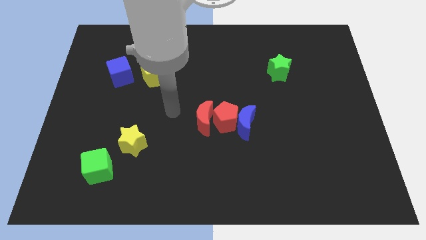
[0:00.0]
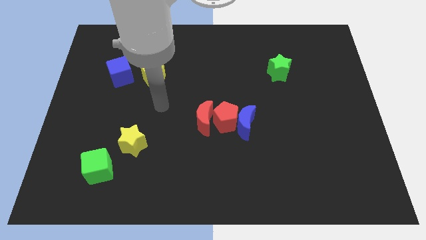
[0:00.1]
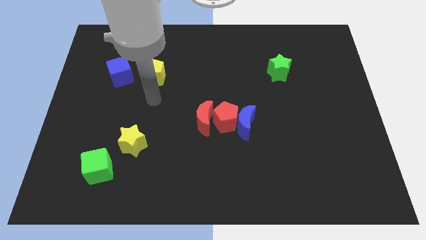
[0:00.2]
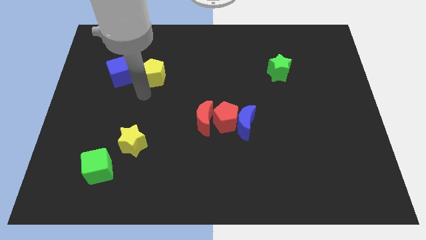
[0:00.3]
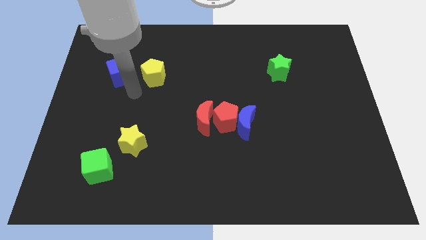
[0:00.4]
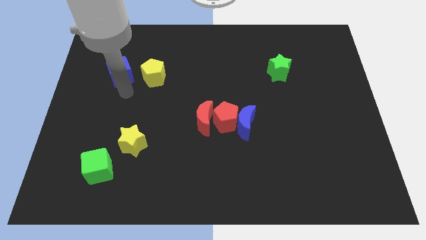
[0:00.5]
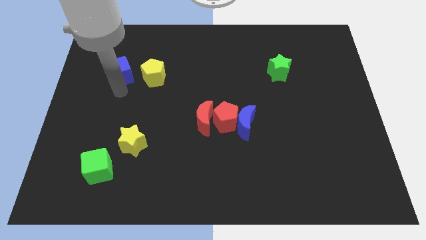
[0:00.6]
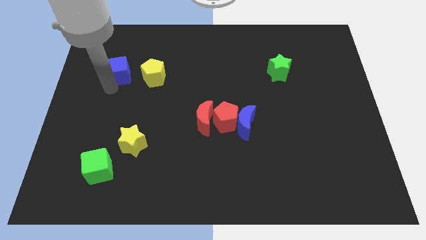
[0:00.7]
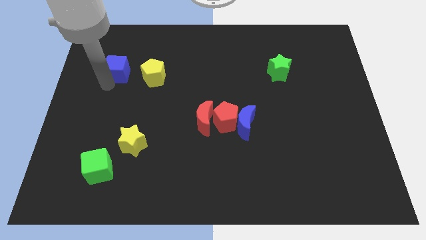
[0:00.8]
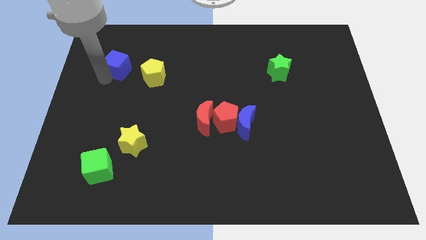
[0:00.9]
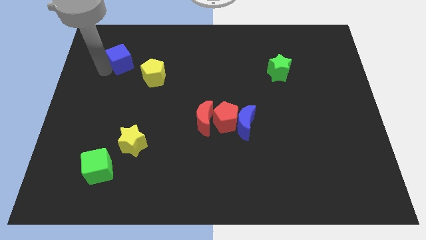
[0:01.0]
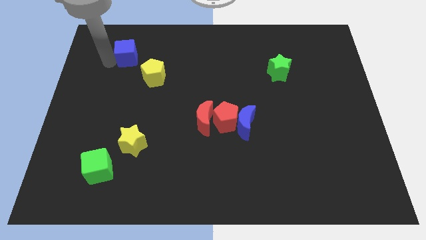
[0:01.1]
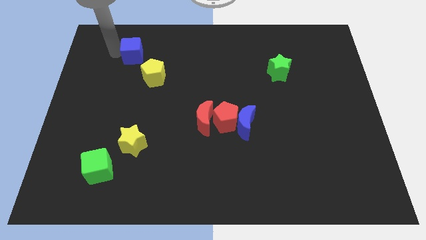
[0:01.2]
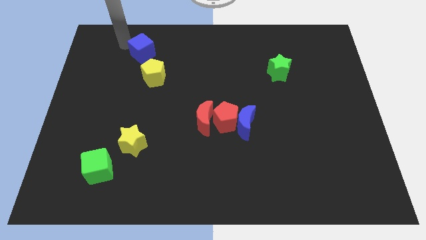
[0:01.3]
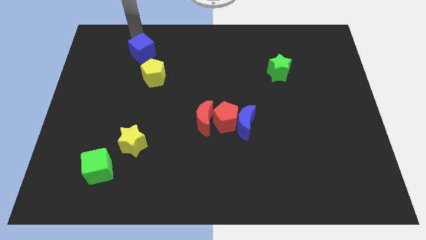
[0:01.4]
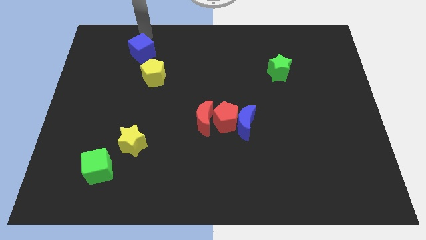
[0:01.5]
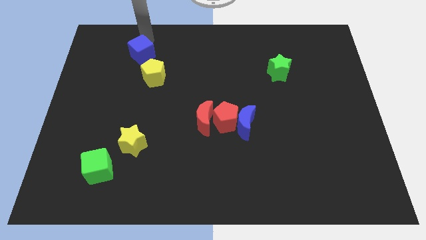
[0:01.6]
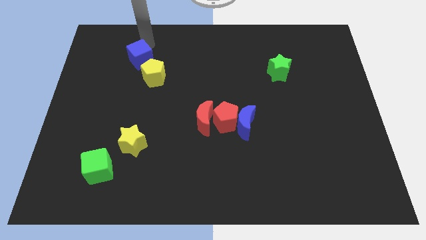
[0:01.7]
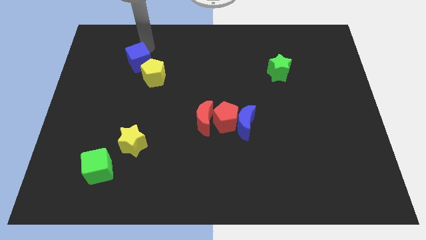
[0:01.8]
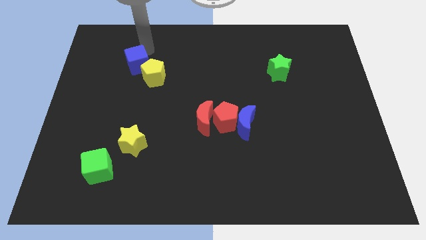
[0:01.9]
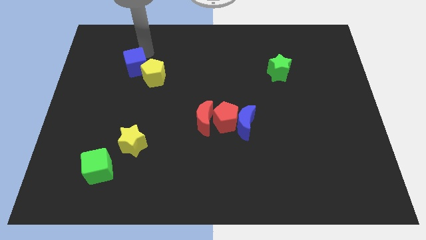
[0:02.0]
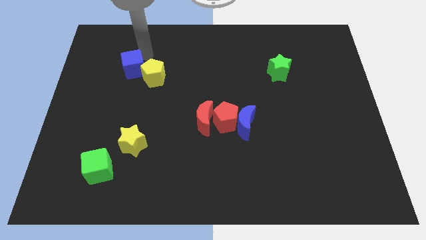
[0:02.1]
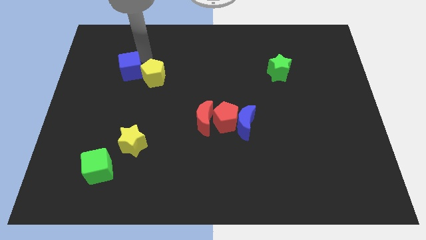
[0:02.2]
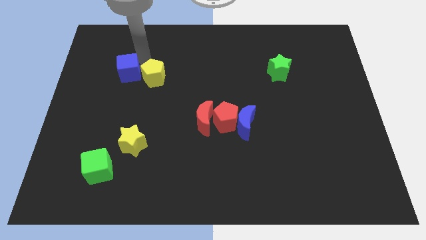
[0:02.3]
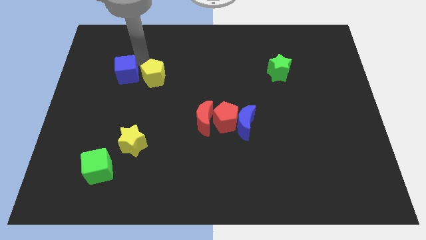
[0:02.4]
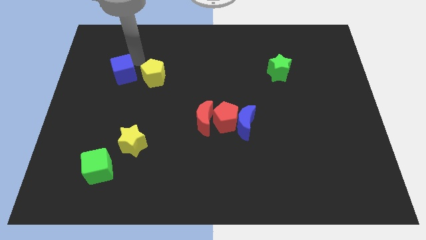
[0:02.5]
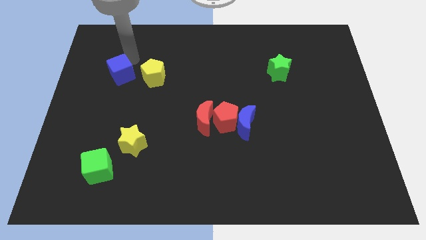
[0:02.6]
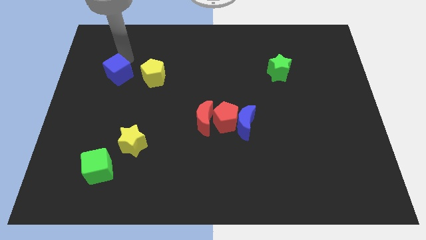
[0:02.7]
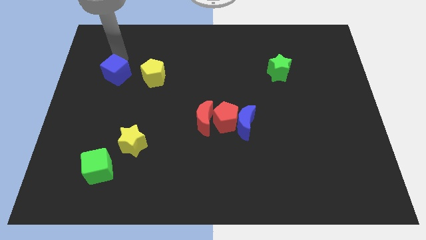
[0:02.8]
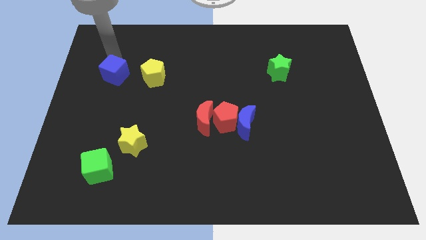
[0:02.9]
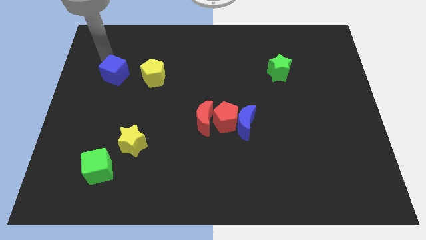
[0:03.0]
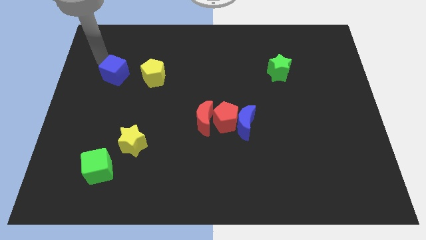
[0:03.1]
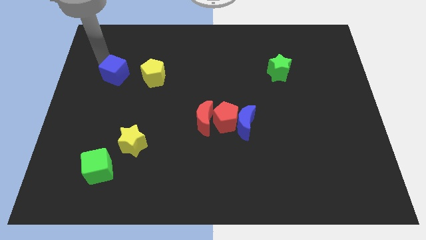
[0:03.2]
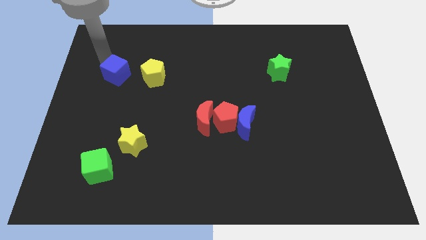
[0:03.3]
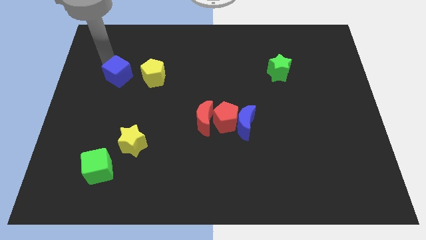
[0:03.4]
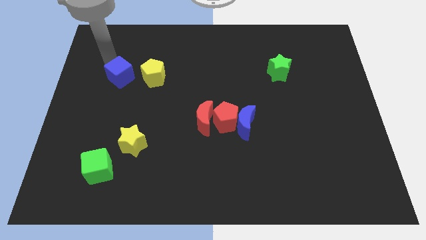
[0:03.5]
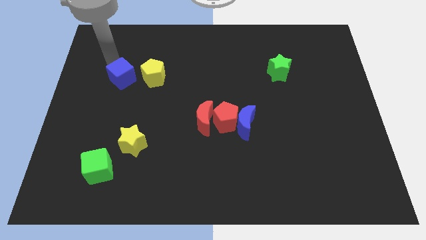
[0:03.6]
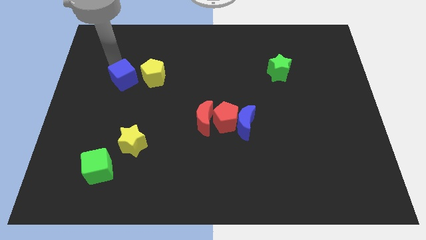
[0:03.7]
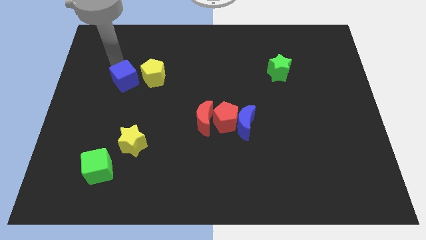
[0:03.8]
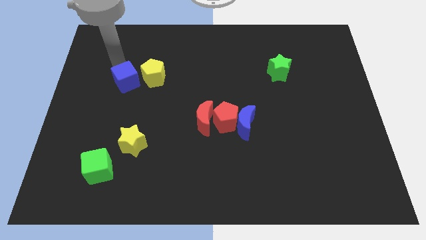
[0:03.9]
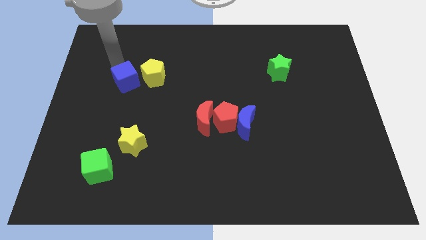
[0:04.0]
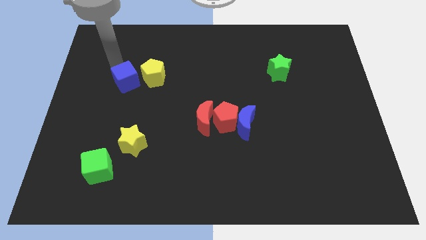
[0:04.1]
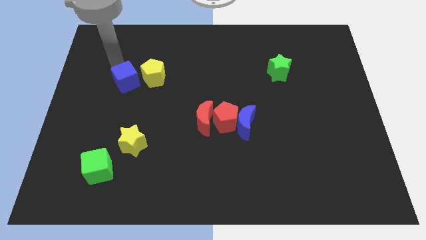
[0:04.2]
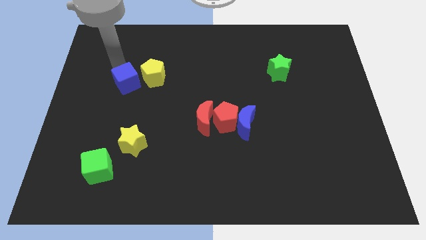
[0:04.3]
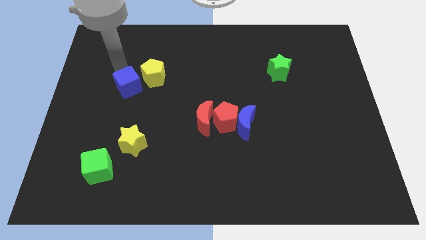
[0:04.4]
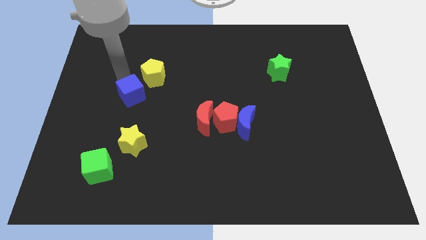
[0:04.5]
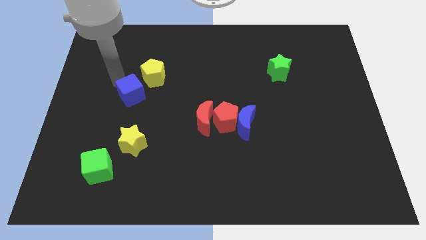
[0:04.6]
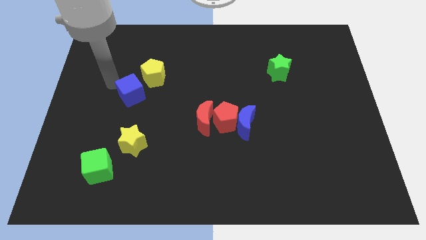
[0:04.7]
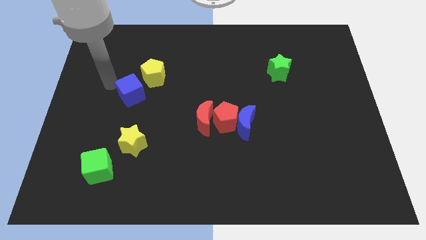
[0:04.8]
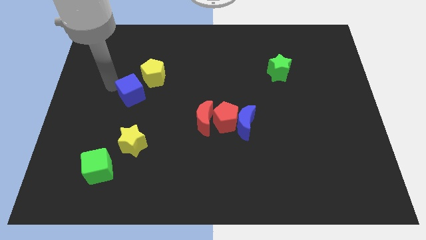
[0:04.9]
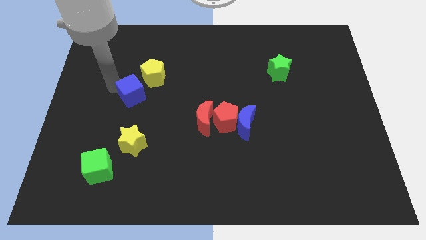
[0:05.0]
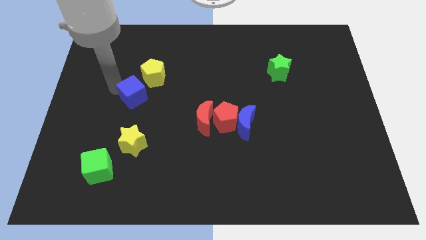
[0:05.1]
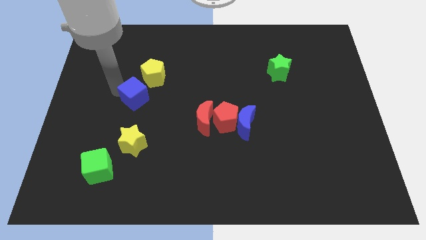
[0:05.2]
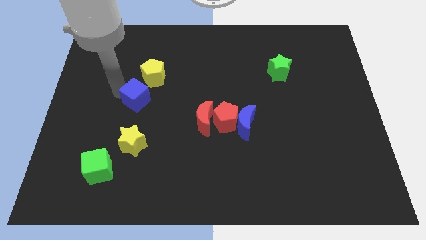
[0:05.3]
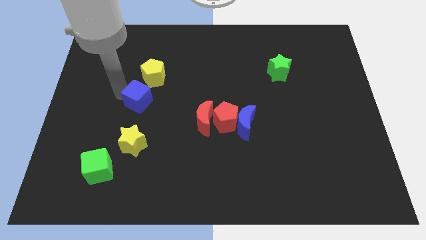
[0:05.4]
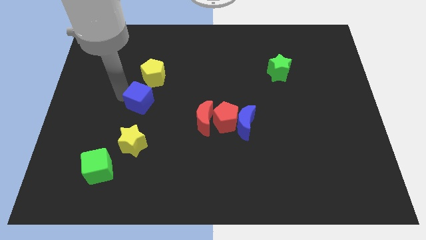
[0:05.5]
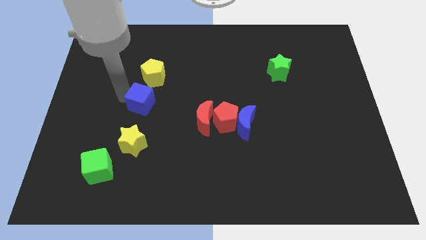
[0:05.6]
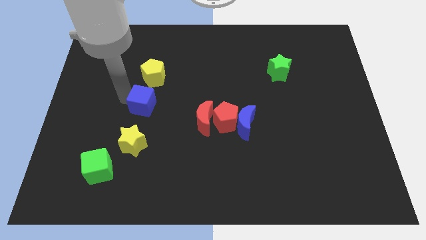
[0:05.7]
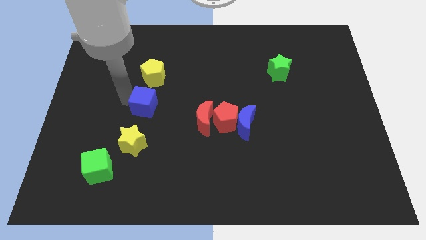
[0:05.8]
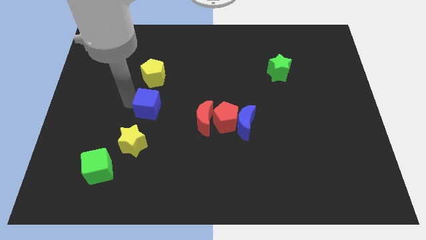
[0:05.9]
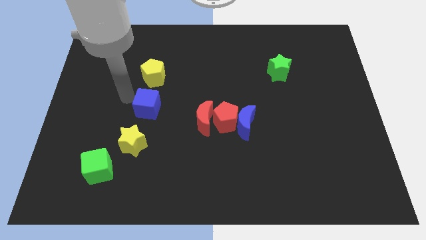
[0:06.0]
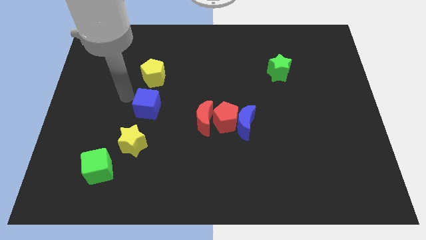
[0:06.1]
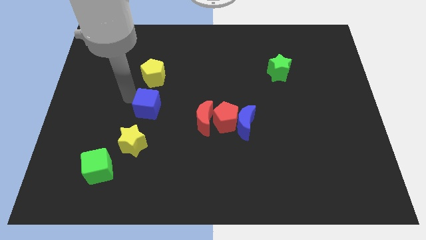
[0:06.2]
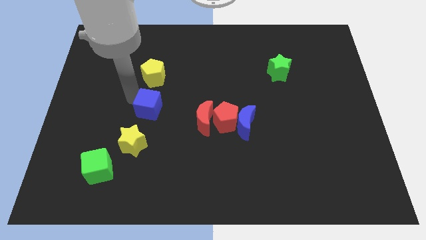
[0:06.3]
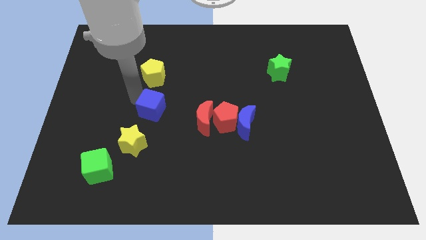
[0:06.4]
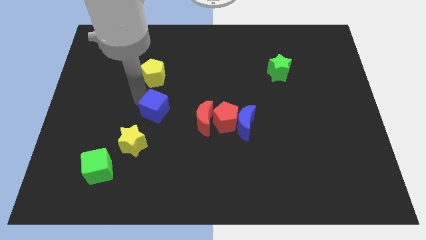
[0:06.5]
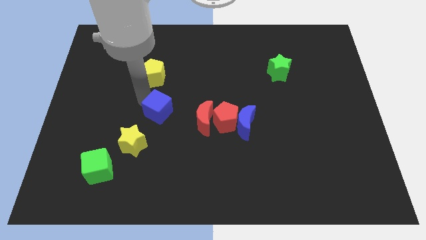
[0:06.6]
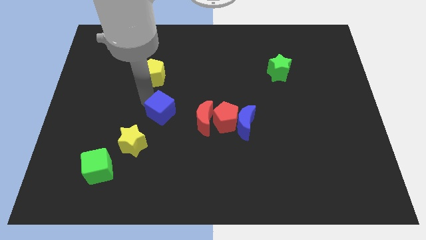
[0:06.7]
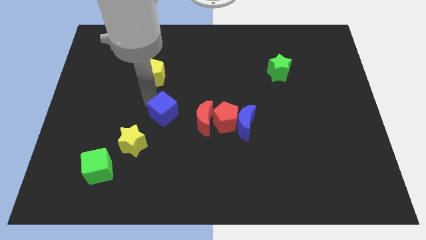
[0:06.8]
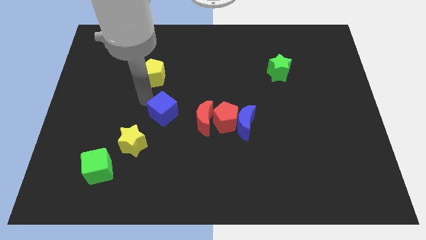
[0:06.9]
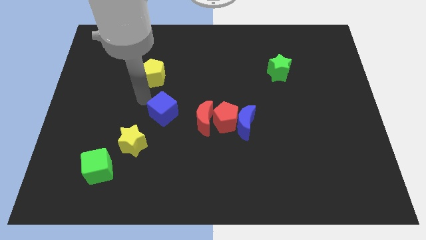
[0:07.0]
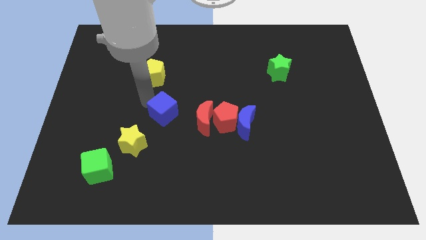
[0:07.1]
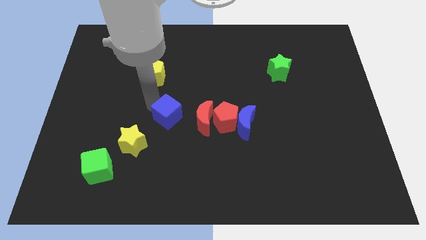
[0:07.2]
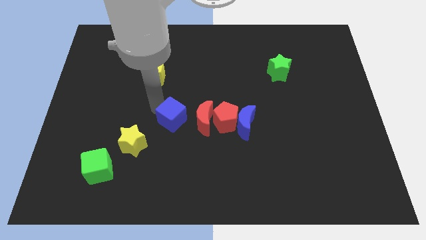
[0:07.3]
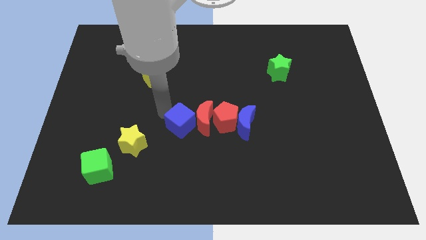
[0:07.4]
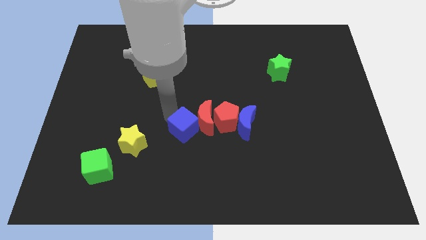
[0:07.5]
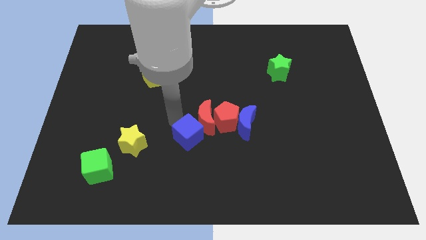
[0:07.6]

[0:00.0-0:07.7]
slide the blue cube to the bottom left of the red pentagon
